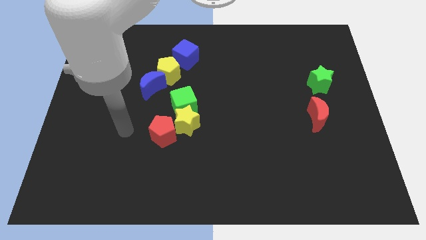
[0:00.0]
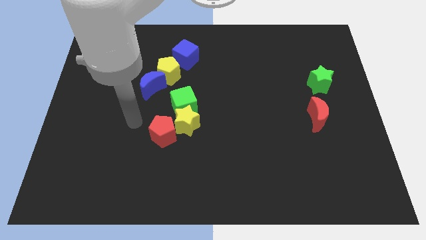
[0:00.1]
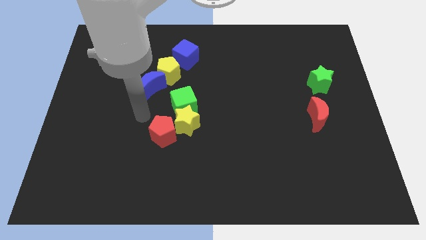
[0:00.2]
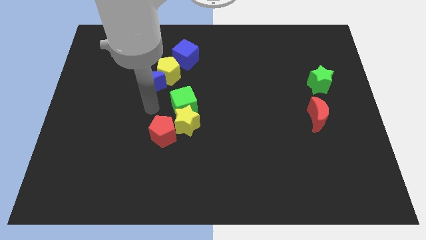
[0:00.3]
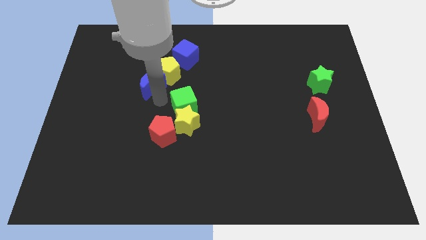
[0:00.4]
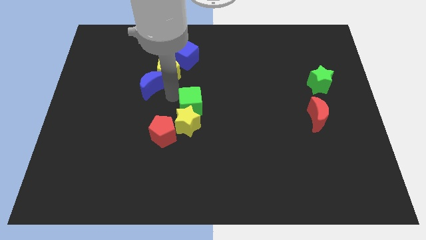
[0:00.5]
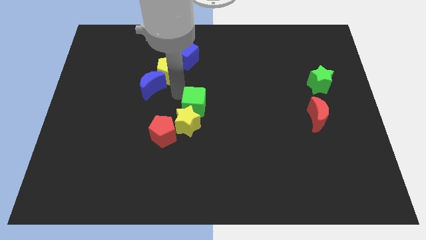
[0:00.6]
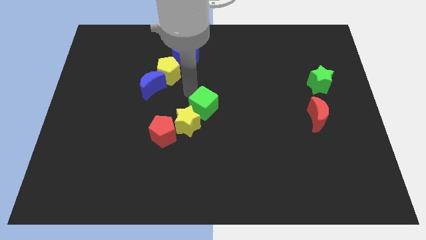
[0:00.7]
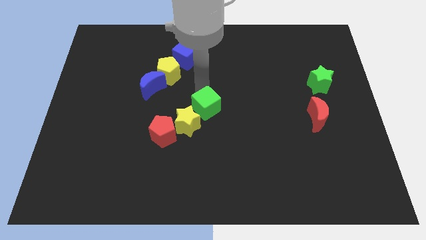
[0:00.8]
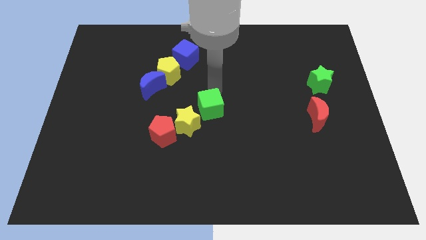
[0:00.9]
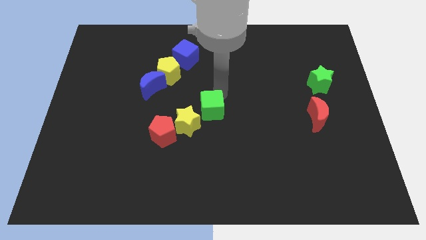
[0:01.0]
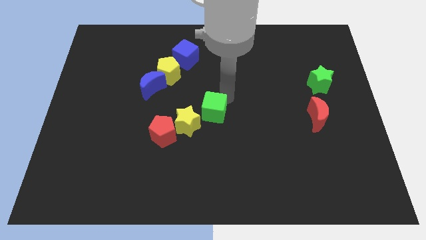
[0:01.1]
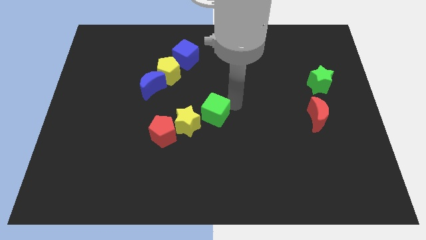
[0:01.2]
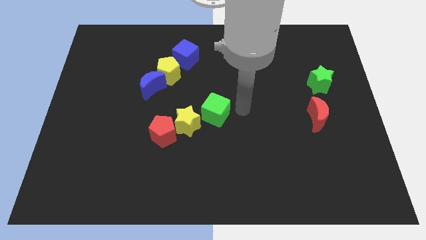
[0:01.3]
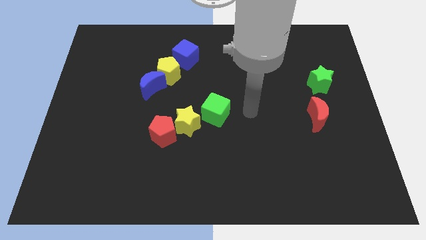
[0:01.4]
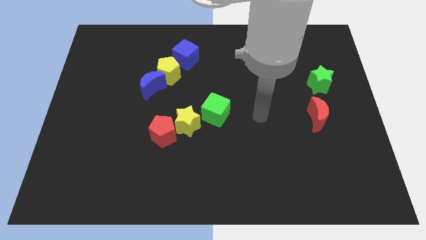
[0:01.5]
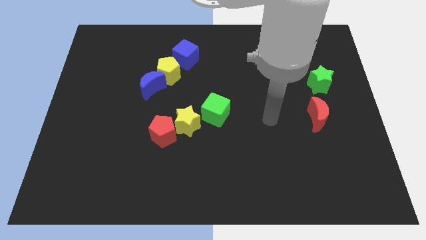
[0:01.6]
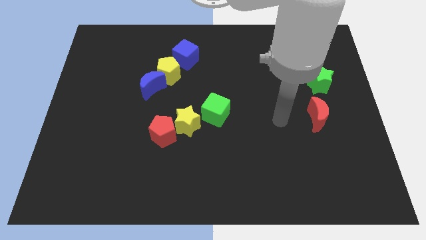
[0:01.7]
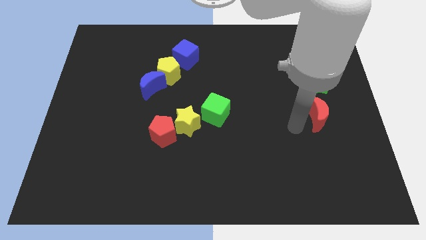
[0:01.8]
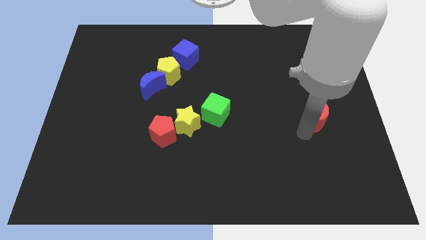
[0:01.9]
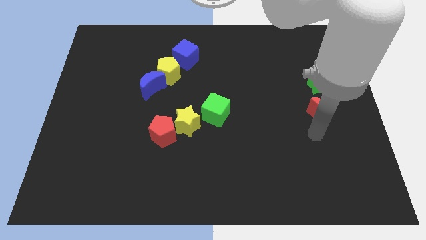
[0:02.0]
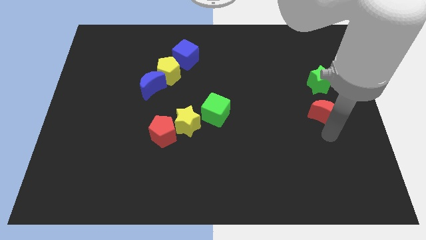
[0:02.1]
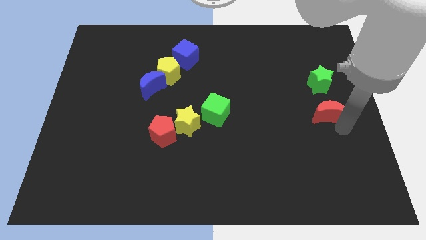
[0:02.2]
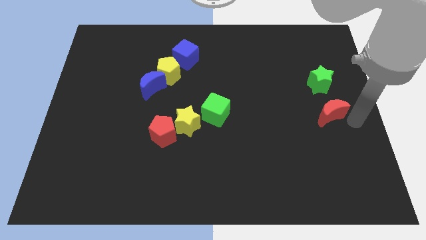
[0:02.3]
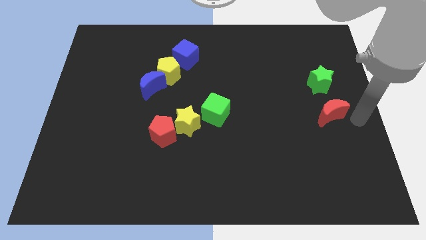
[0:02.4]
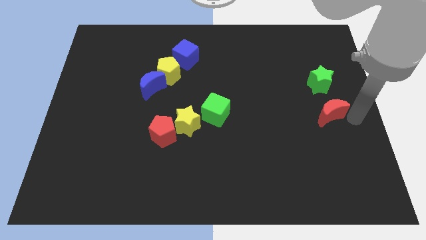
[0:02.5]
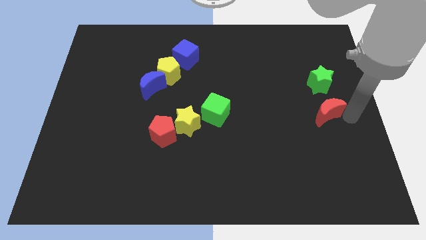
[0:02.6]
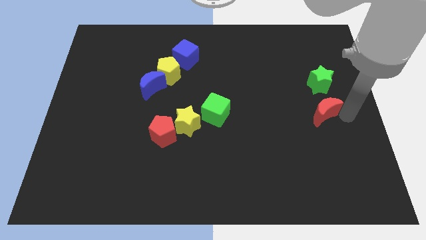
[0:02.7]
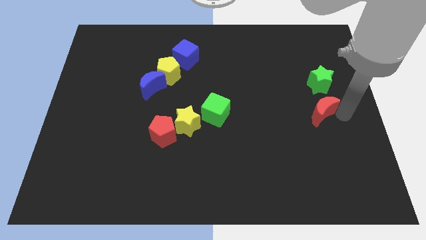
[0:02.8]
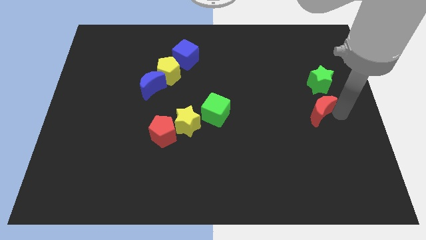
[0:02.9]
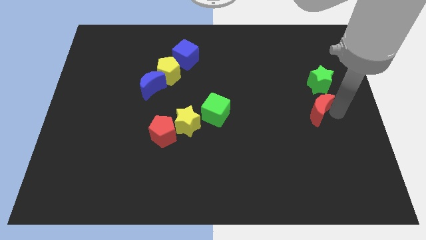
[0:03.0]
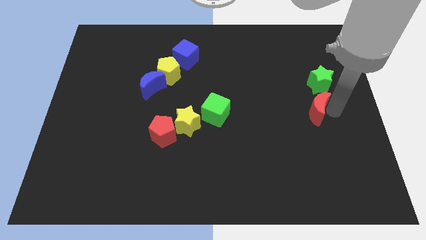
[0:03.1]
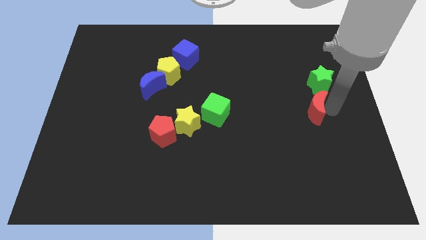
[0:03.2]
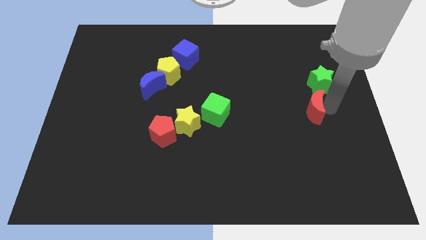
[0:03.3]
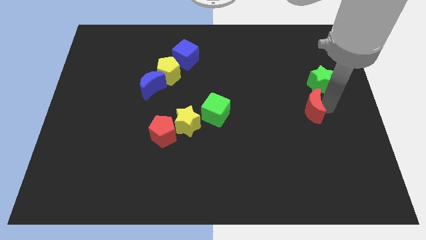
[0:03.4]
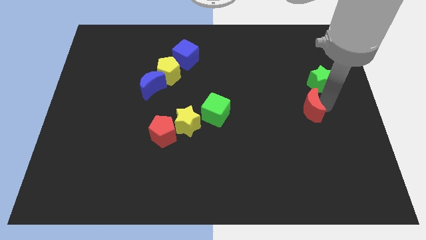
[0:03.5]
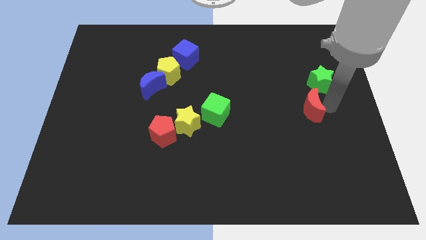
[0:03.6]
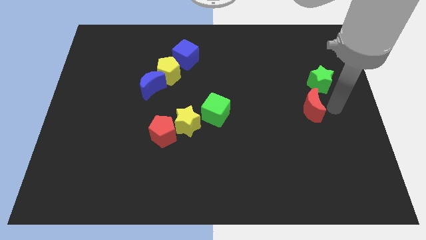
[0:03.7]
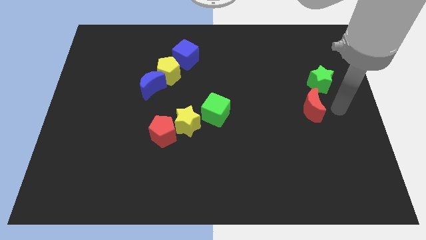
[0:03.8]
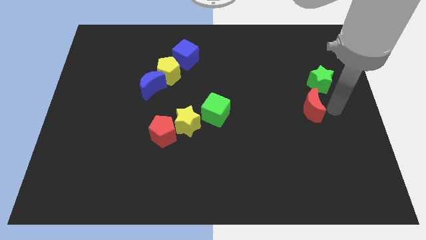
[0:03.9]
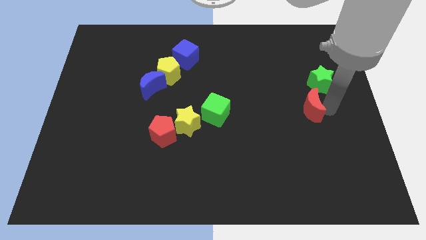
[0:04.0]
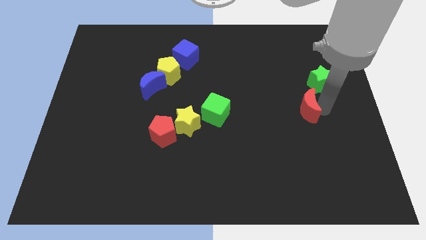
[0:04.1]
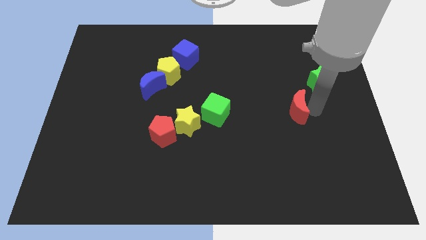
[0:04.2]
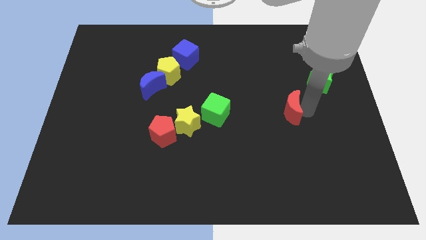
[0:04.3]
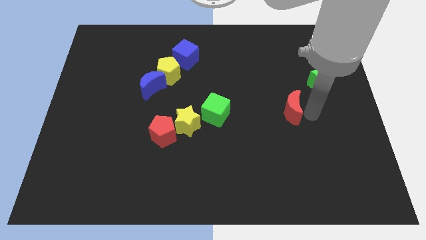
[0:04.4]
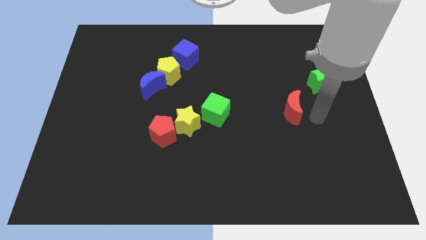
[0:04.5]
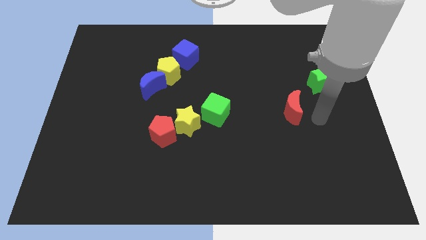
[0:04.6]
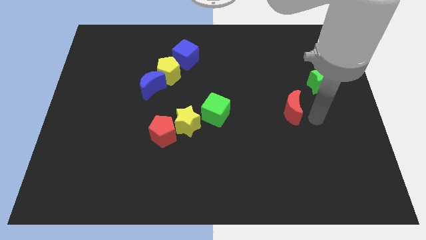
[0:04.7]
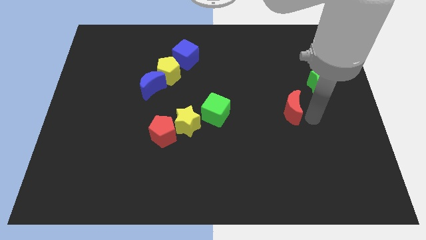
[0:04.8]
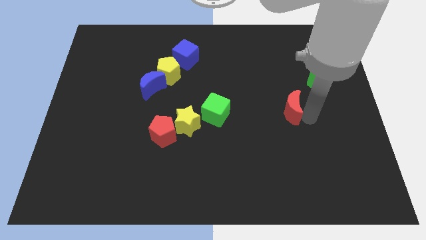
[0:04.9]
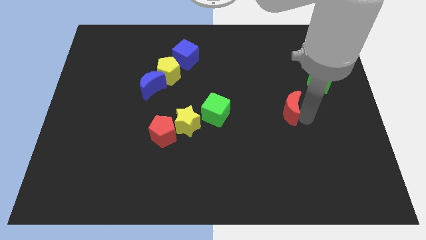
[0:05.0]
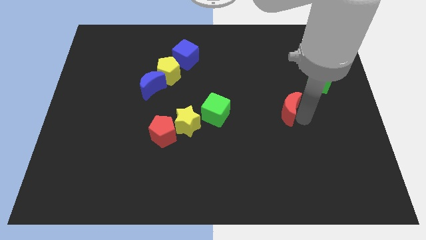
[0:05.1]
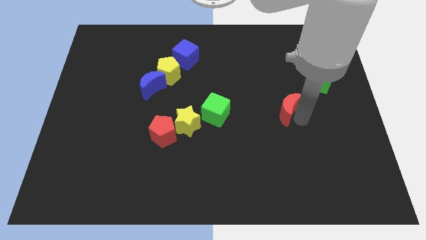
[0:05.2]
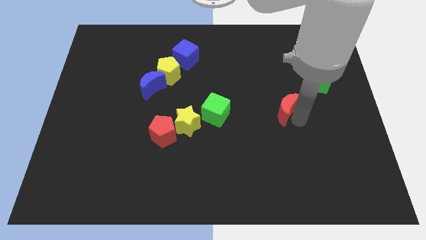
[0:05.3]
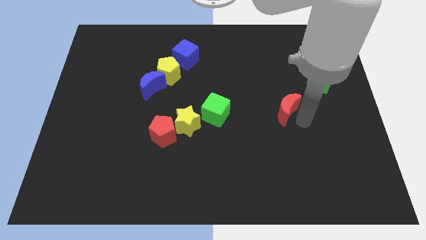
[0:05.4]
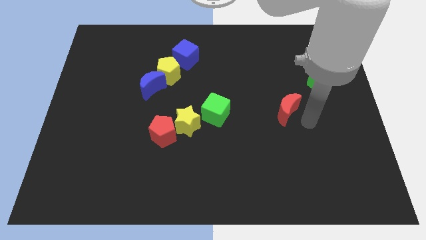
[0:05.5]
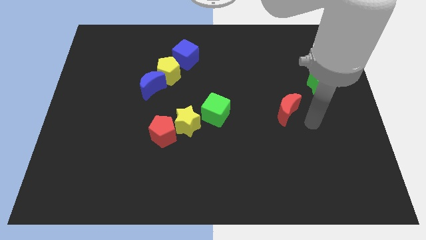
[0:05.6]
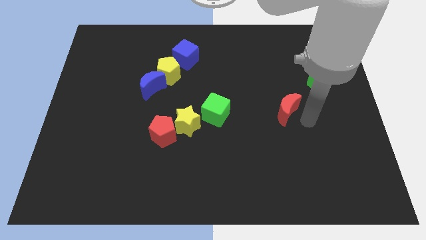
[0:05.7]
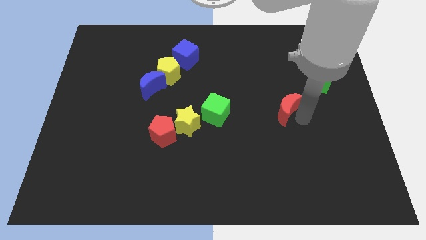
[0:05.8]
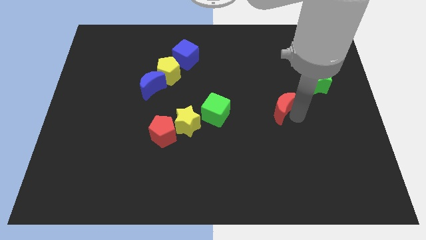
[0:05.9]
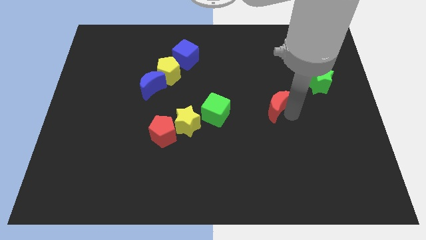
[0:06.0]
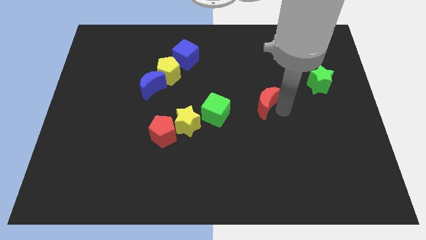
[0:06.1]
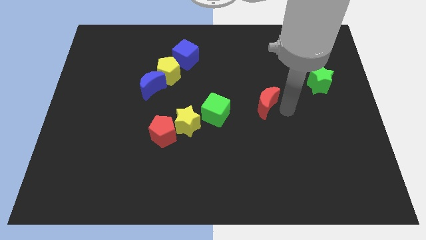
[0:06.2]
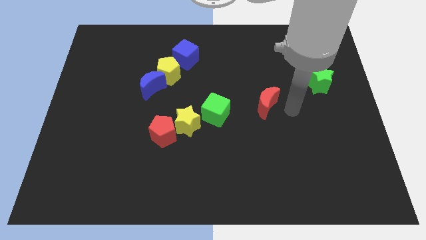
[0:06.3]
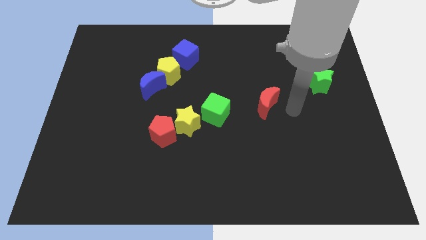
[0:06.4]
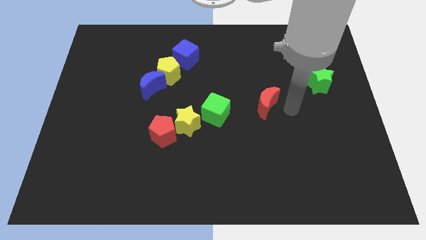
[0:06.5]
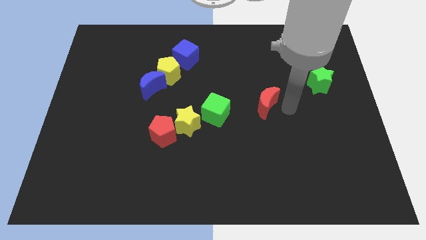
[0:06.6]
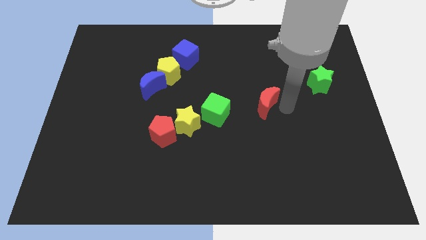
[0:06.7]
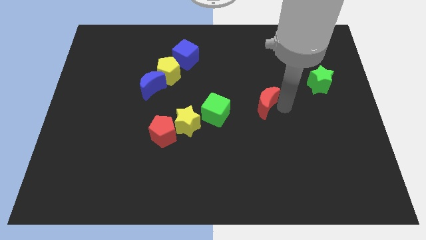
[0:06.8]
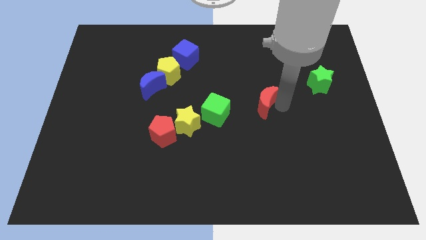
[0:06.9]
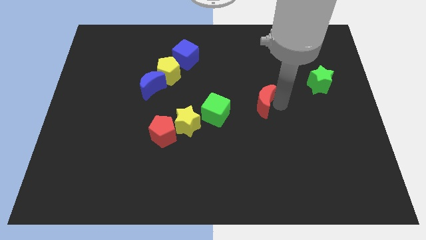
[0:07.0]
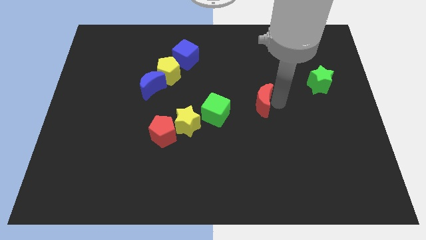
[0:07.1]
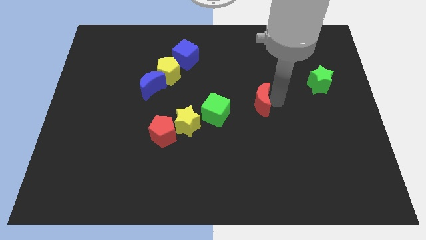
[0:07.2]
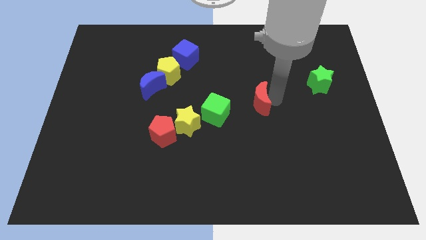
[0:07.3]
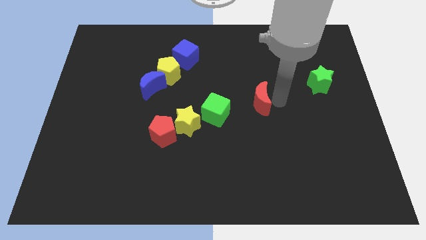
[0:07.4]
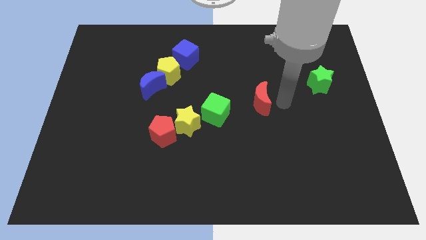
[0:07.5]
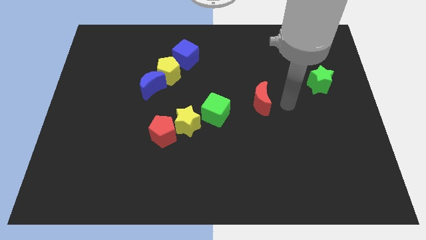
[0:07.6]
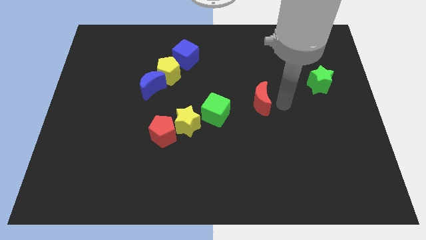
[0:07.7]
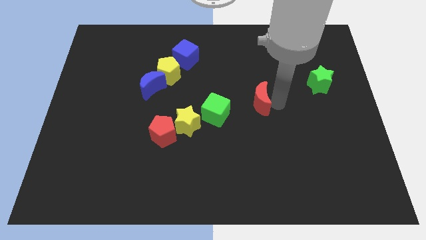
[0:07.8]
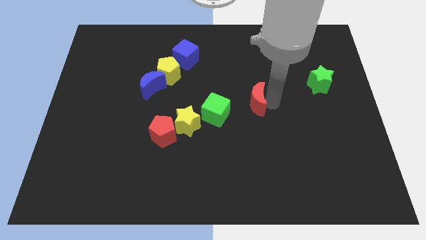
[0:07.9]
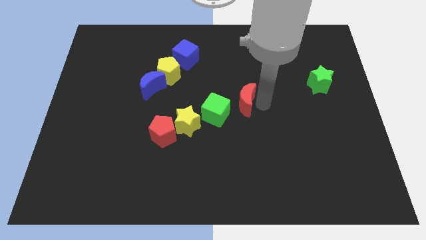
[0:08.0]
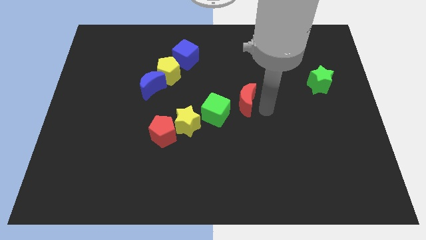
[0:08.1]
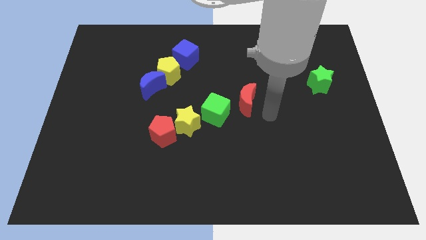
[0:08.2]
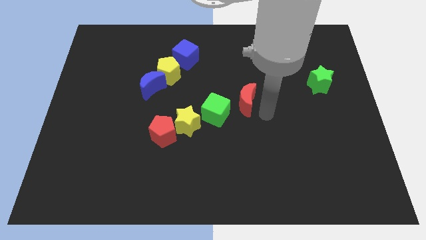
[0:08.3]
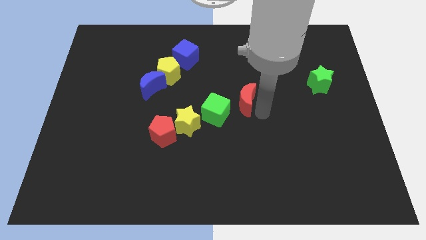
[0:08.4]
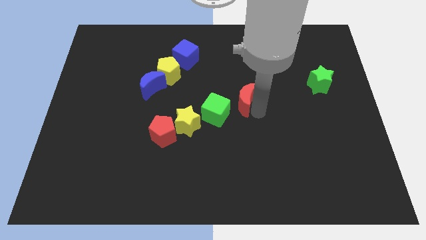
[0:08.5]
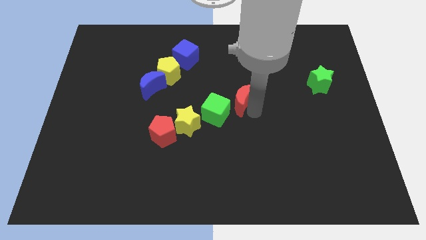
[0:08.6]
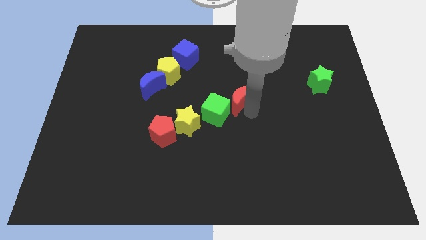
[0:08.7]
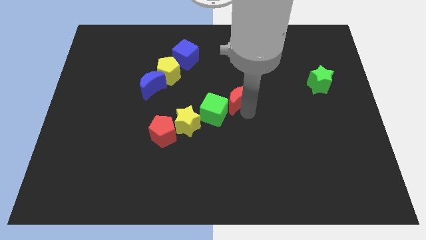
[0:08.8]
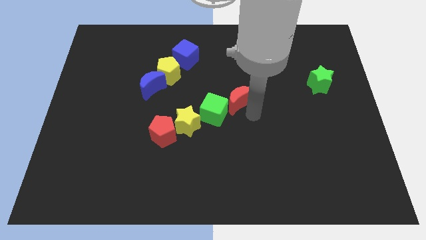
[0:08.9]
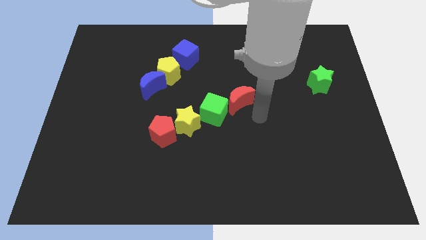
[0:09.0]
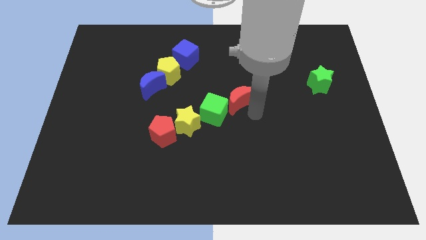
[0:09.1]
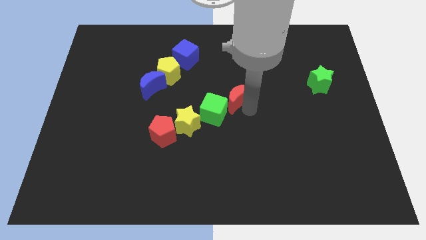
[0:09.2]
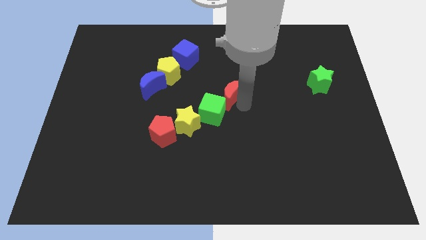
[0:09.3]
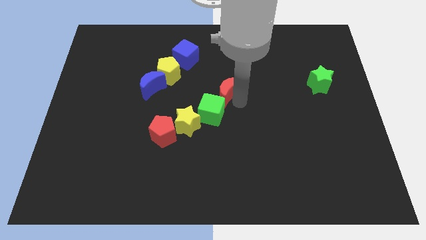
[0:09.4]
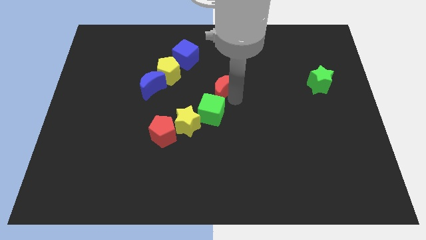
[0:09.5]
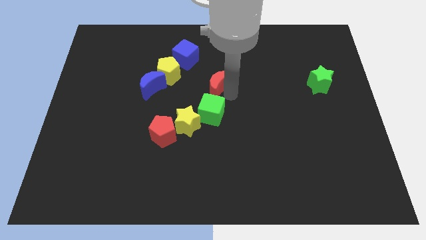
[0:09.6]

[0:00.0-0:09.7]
put the red moon just right of the blue moon
